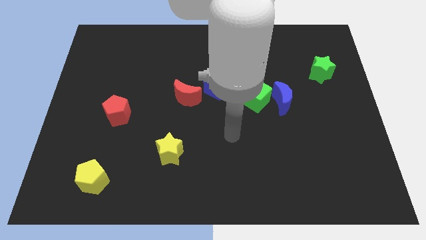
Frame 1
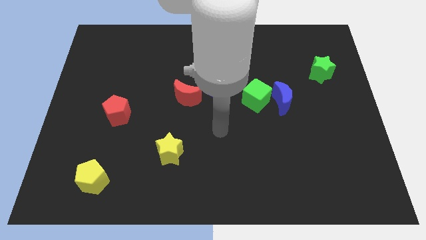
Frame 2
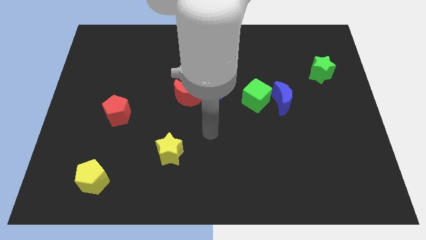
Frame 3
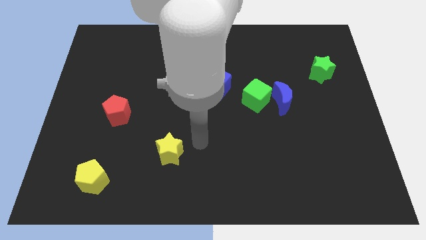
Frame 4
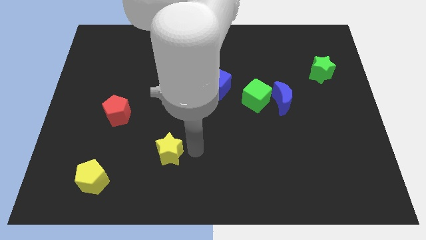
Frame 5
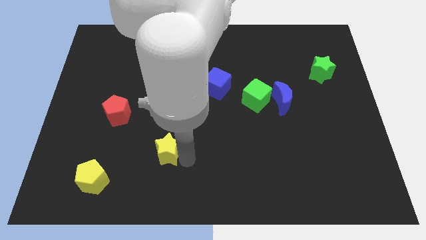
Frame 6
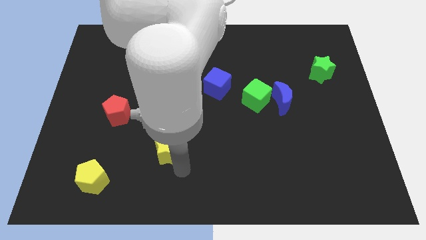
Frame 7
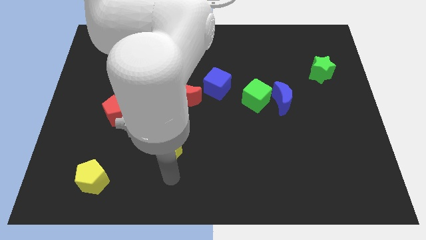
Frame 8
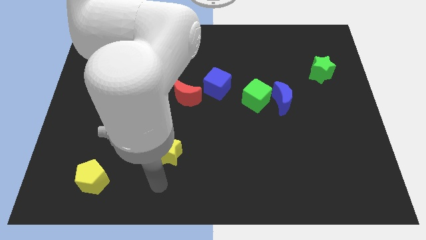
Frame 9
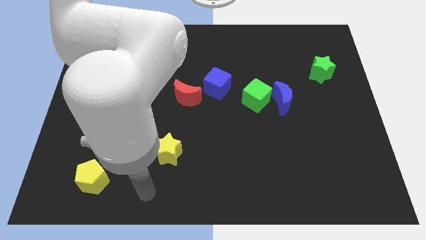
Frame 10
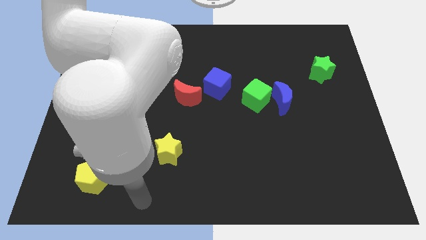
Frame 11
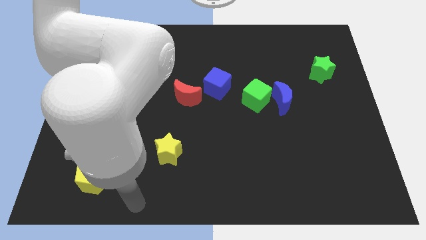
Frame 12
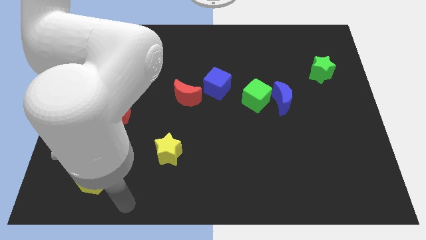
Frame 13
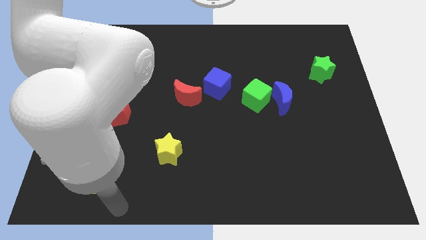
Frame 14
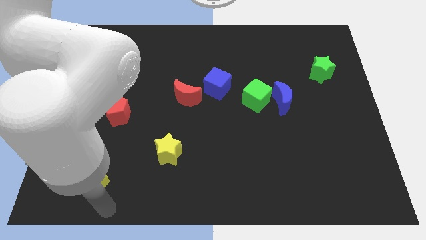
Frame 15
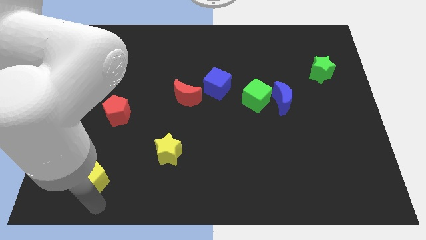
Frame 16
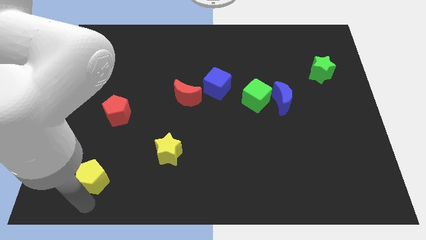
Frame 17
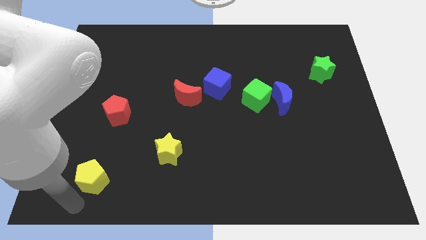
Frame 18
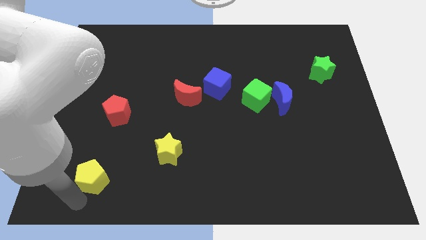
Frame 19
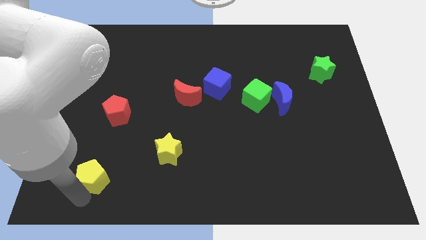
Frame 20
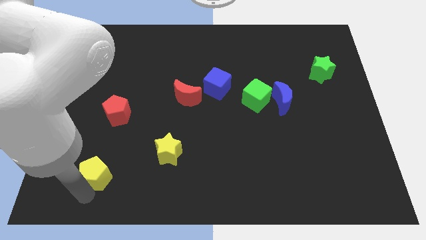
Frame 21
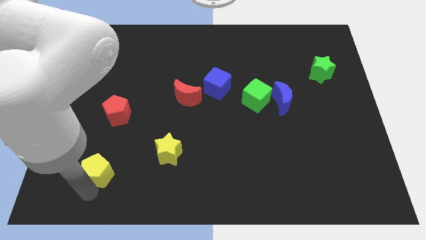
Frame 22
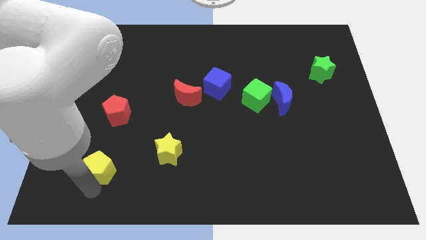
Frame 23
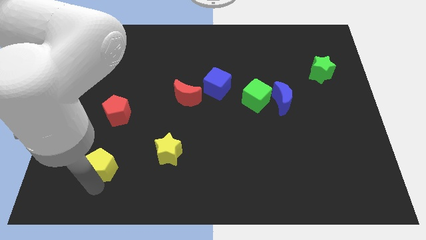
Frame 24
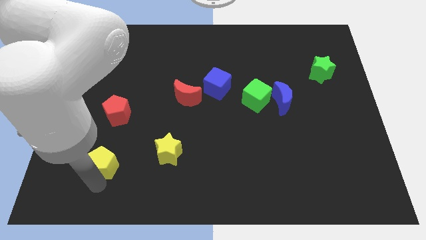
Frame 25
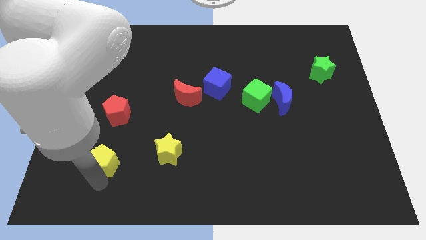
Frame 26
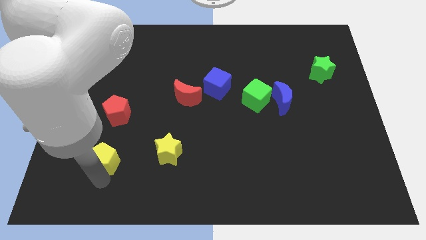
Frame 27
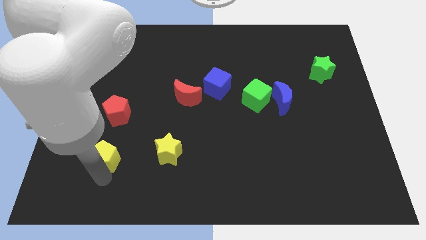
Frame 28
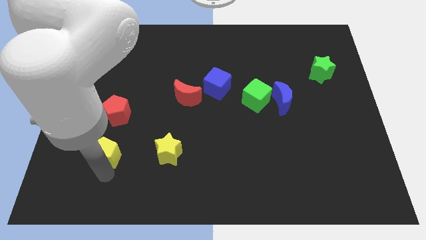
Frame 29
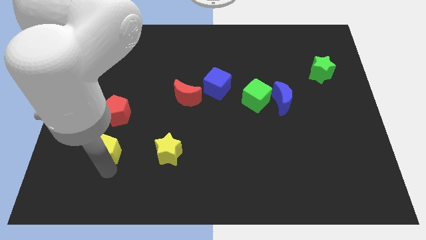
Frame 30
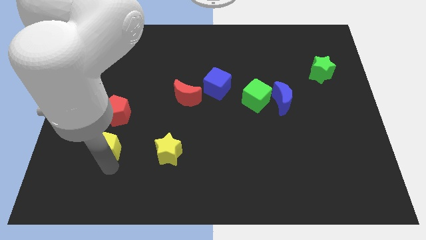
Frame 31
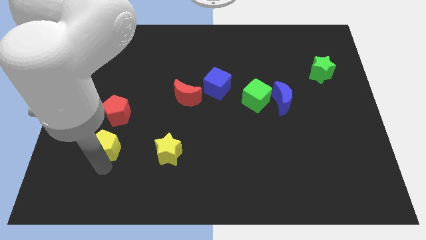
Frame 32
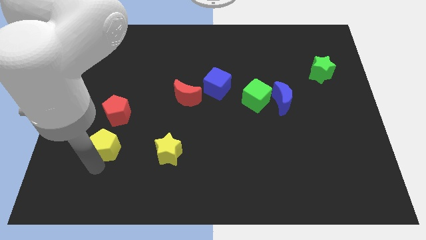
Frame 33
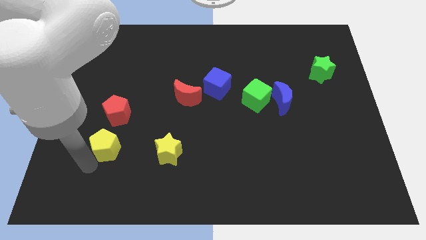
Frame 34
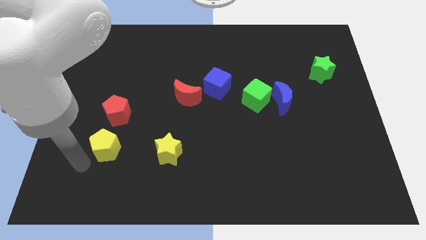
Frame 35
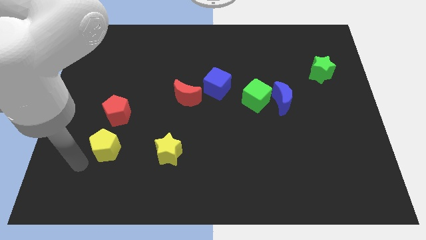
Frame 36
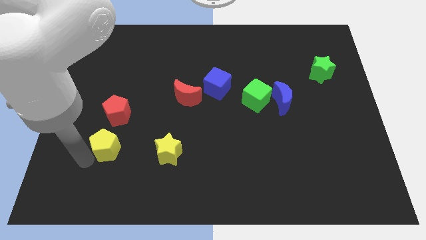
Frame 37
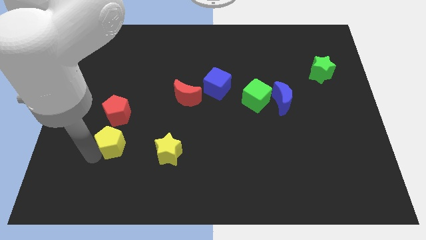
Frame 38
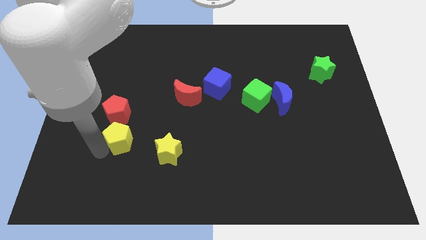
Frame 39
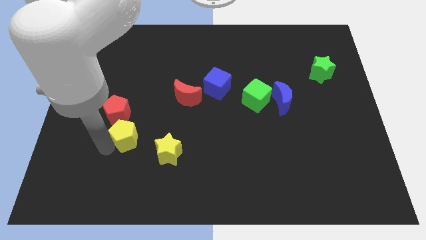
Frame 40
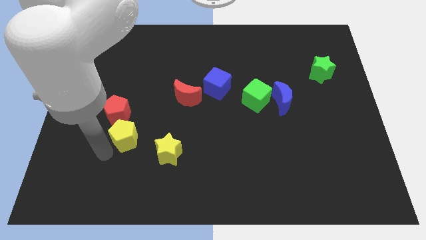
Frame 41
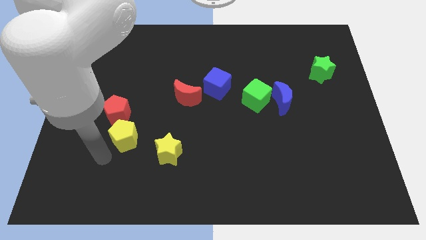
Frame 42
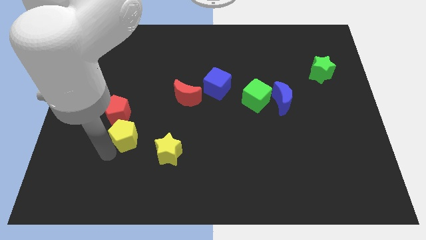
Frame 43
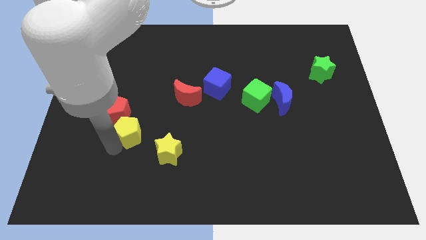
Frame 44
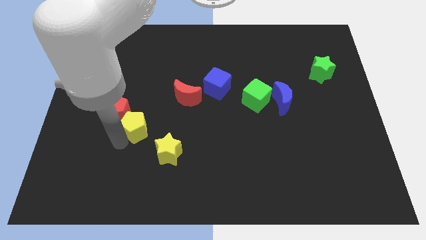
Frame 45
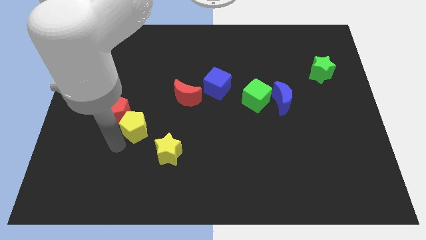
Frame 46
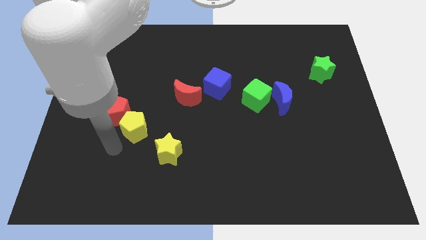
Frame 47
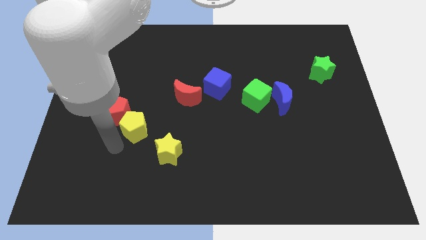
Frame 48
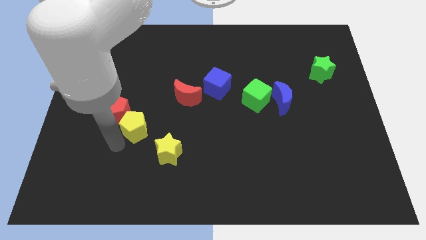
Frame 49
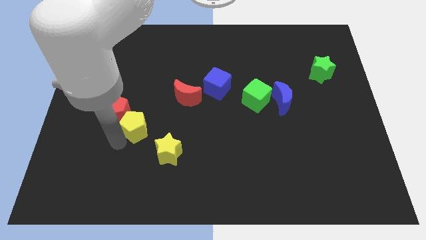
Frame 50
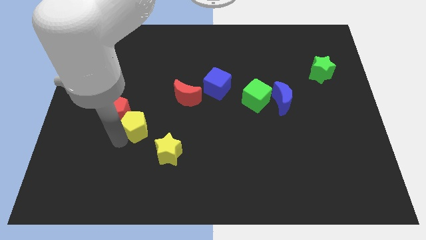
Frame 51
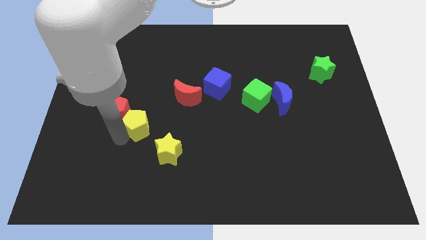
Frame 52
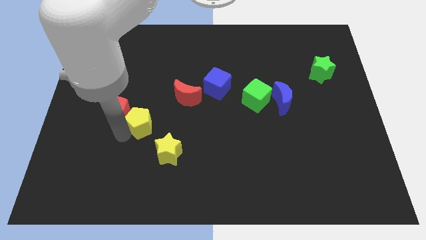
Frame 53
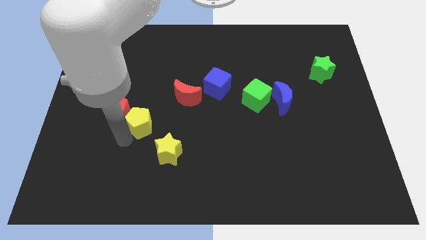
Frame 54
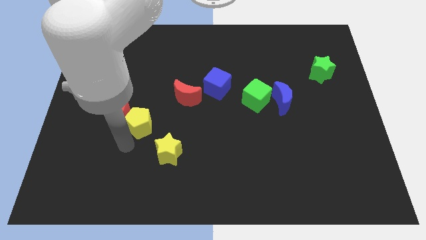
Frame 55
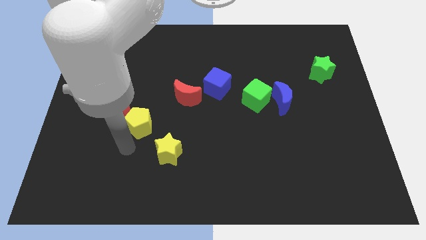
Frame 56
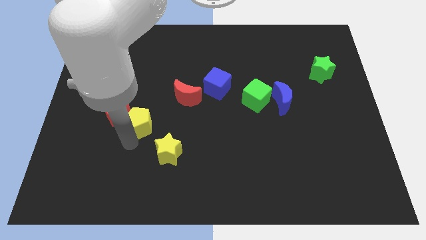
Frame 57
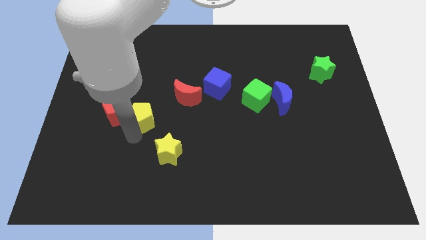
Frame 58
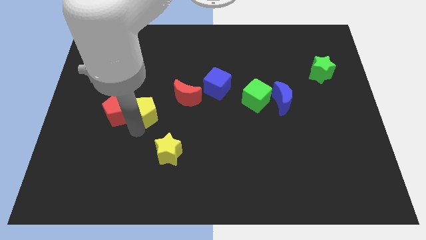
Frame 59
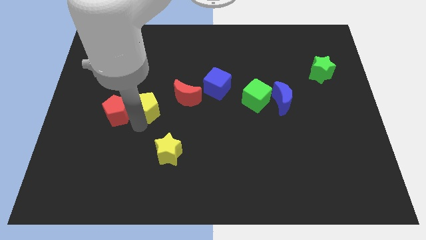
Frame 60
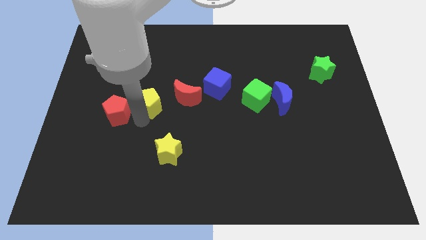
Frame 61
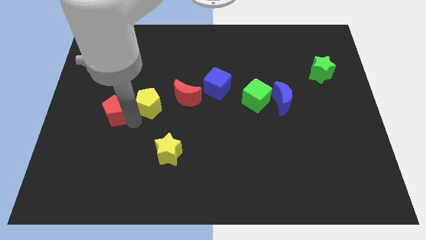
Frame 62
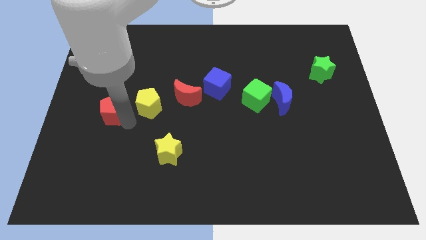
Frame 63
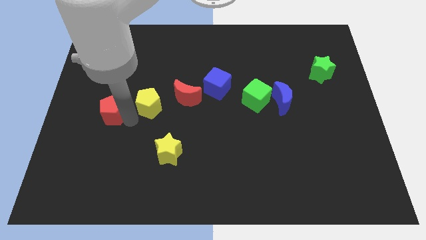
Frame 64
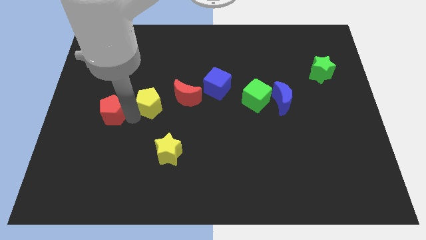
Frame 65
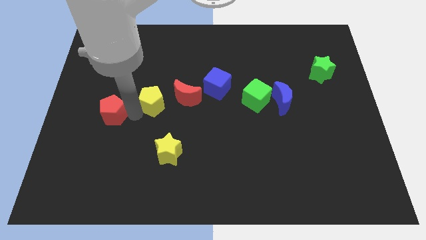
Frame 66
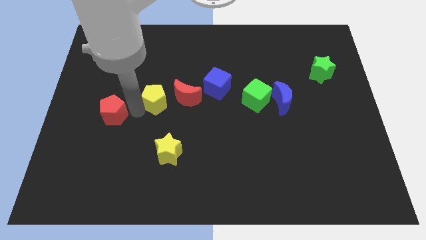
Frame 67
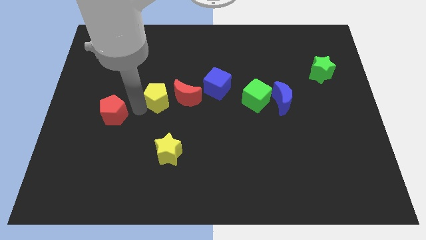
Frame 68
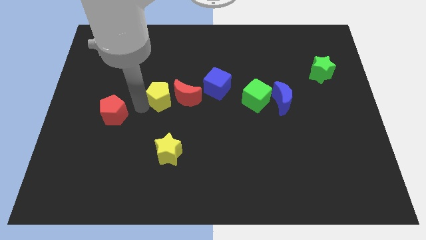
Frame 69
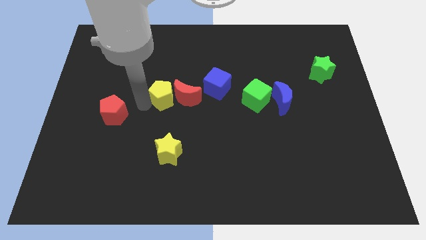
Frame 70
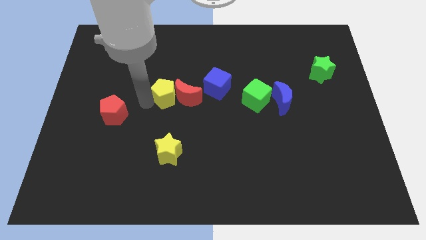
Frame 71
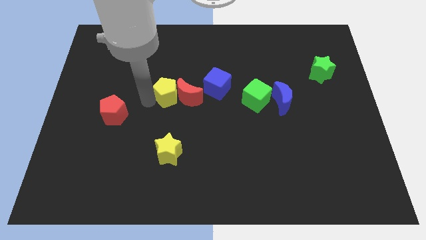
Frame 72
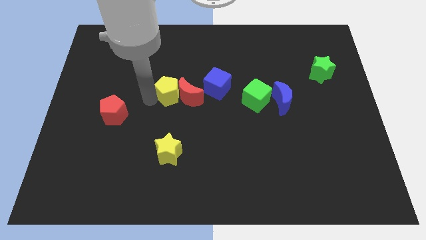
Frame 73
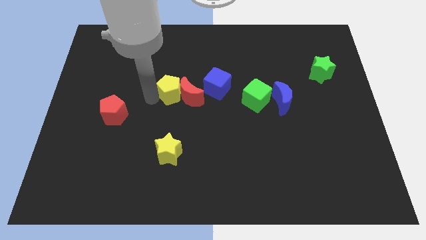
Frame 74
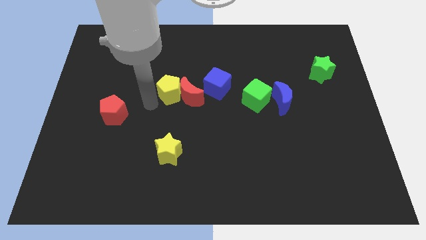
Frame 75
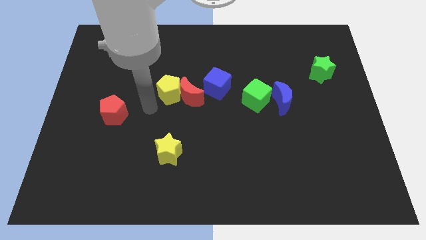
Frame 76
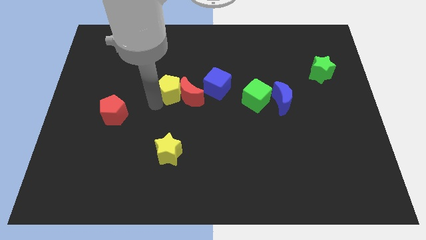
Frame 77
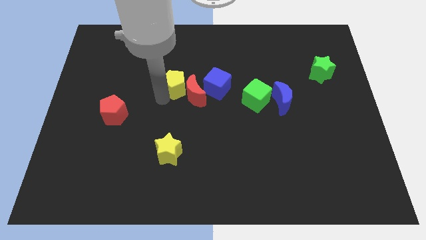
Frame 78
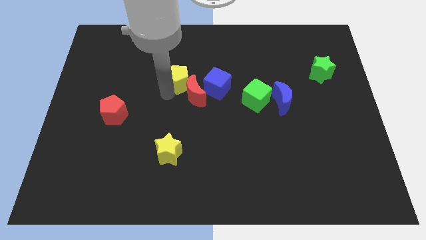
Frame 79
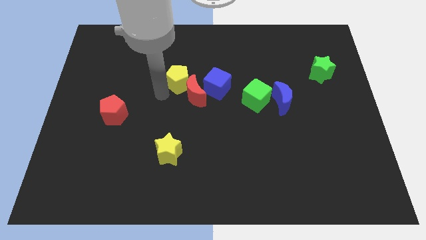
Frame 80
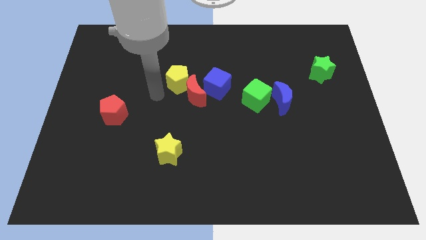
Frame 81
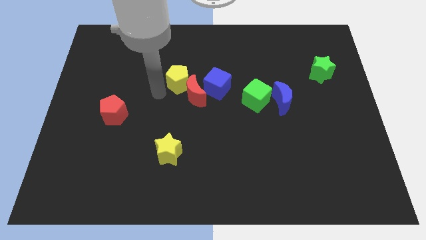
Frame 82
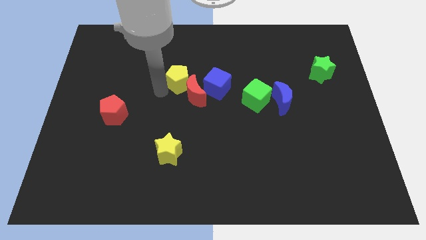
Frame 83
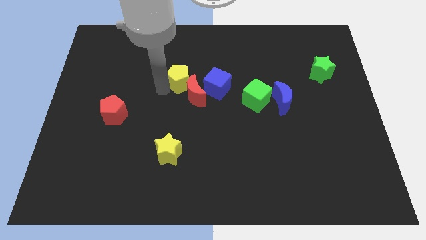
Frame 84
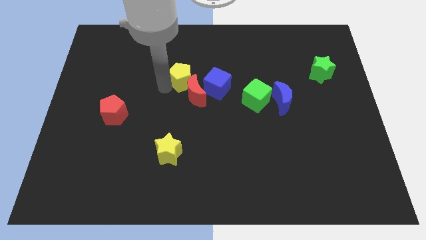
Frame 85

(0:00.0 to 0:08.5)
put the yellow pentagon diagonally up and to the left of the blue cube
